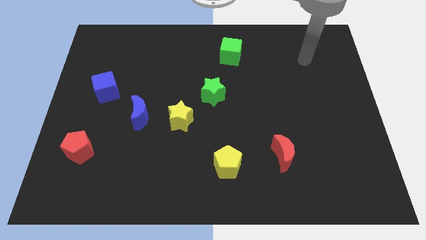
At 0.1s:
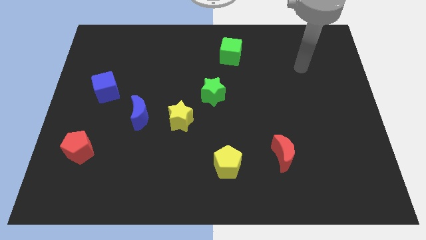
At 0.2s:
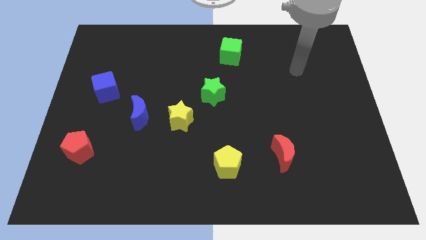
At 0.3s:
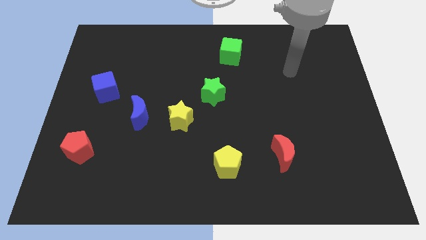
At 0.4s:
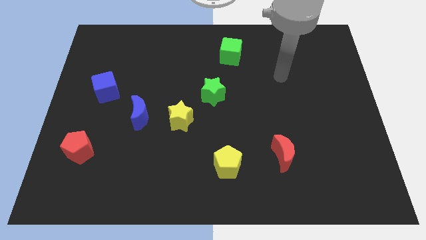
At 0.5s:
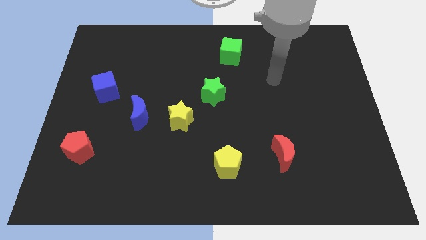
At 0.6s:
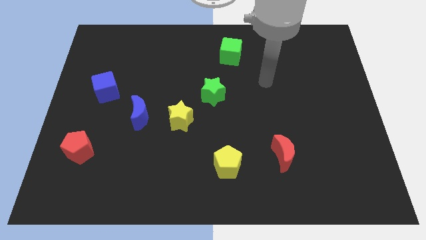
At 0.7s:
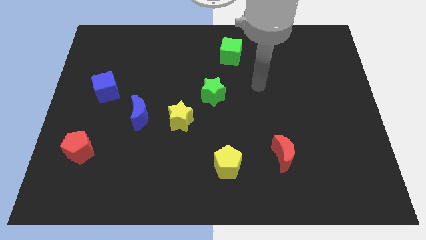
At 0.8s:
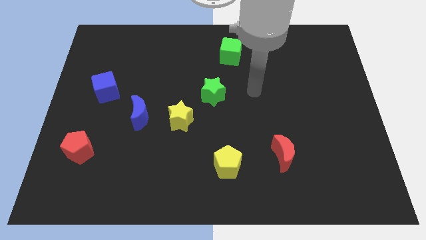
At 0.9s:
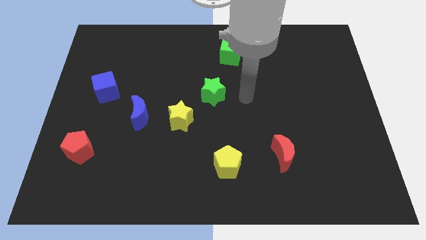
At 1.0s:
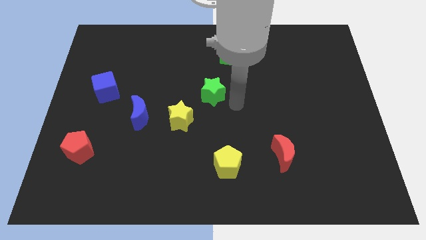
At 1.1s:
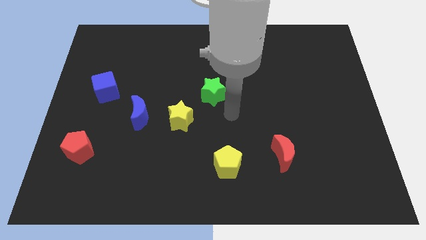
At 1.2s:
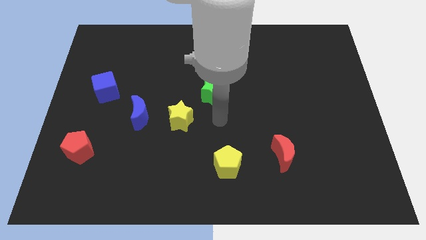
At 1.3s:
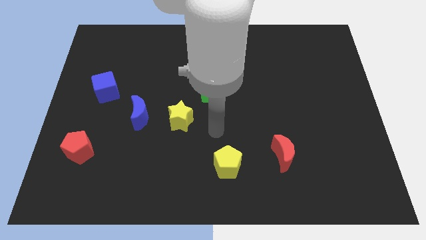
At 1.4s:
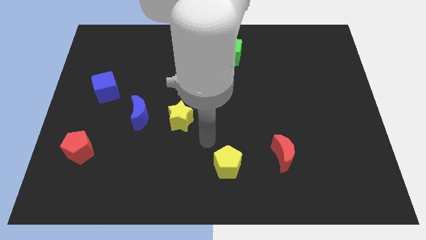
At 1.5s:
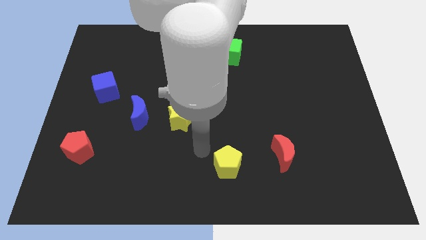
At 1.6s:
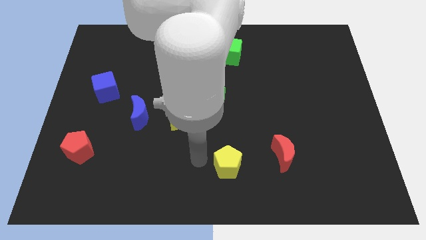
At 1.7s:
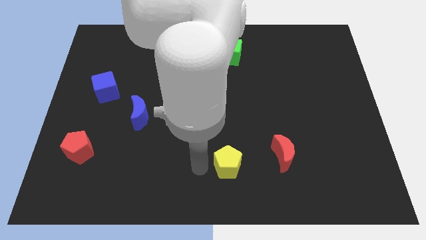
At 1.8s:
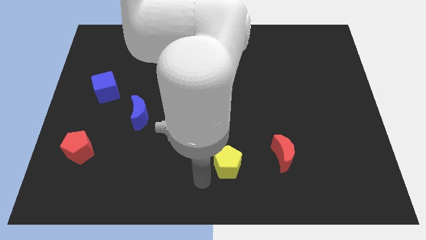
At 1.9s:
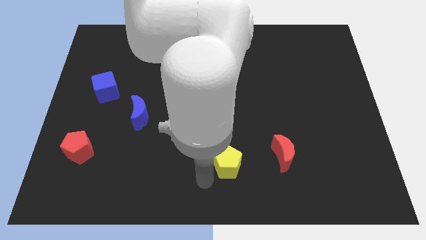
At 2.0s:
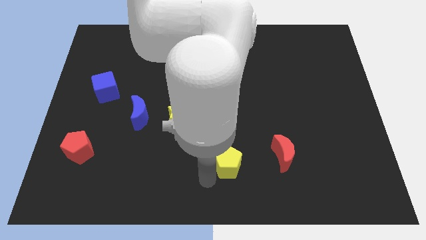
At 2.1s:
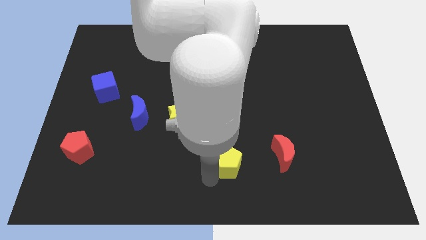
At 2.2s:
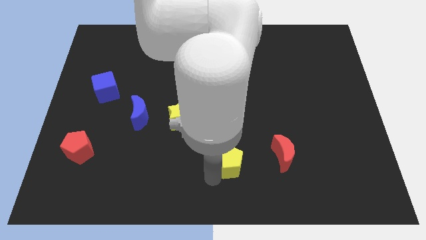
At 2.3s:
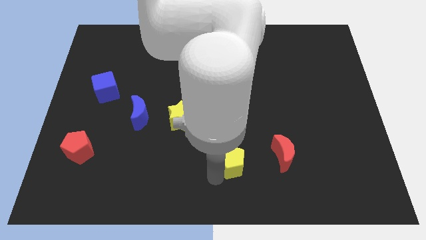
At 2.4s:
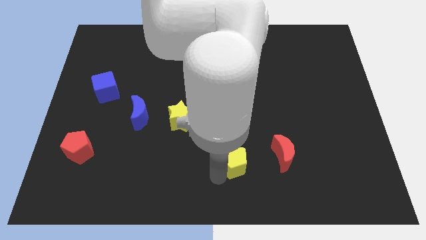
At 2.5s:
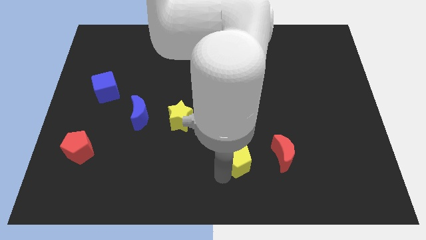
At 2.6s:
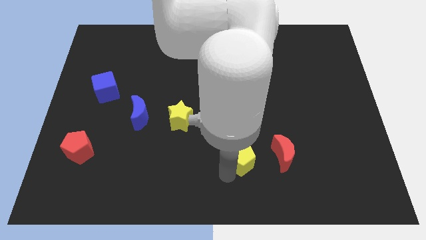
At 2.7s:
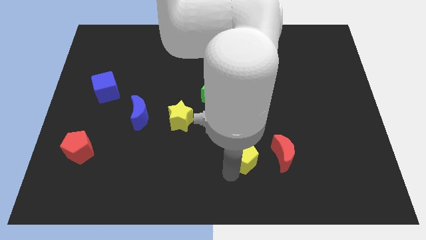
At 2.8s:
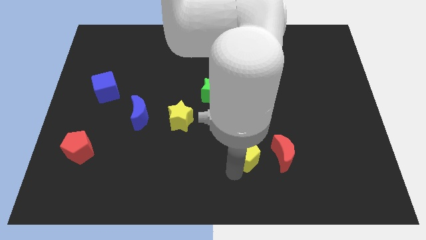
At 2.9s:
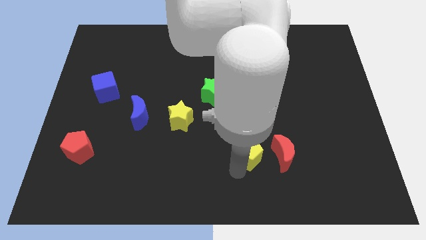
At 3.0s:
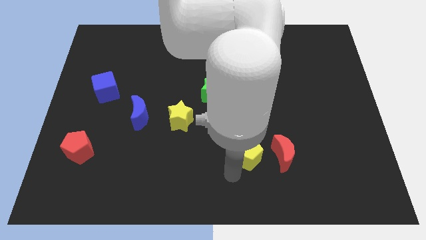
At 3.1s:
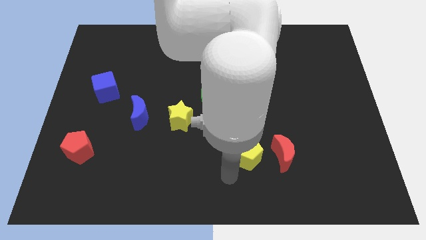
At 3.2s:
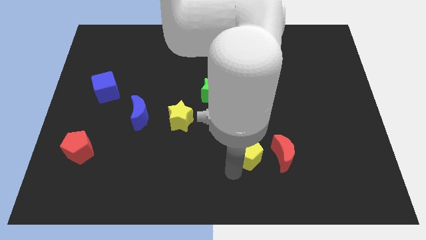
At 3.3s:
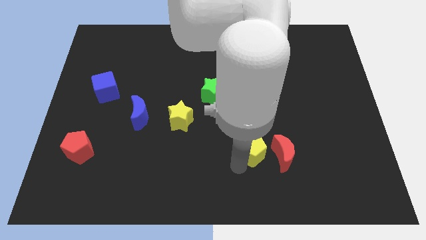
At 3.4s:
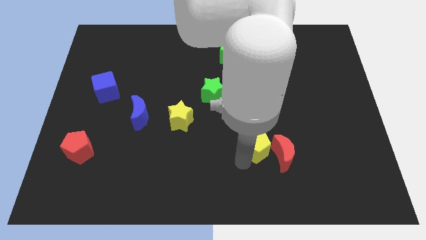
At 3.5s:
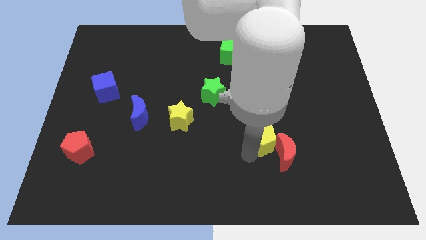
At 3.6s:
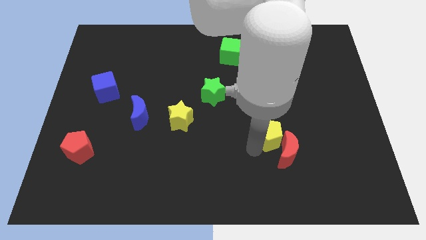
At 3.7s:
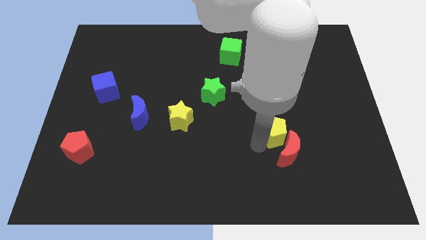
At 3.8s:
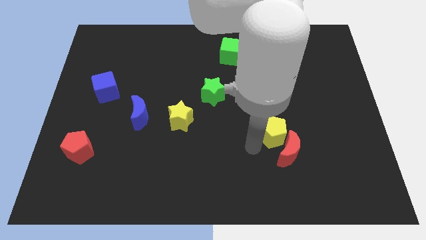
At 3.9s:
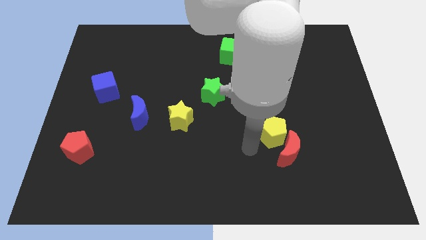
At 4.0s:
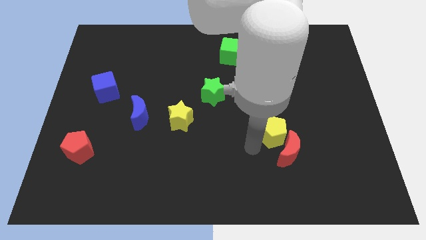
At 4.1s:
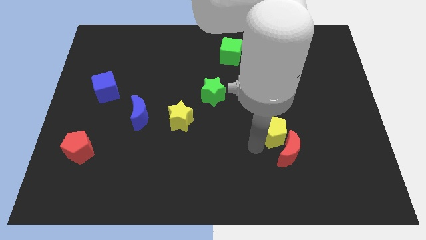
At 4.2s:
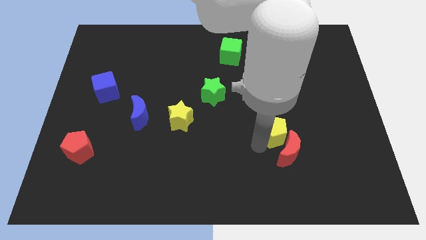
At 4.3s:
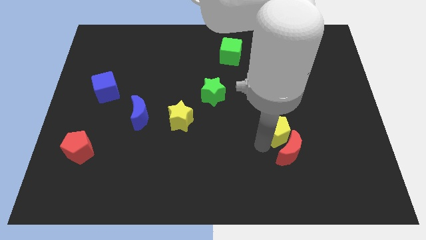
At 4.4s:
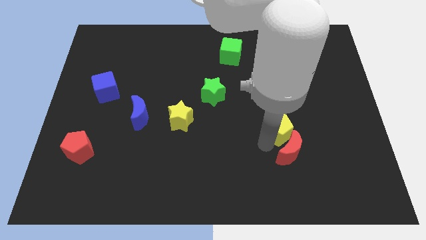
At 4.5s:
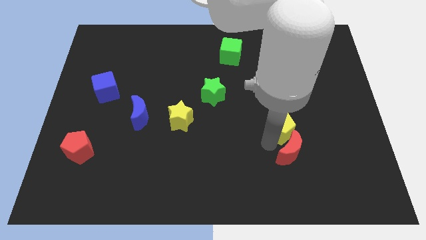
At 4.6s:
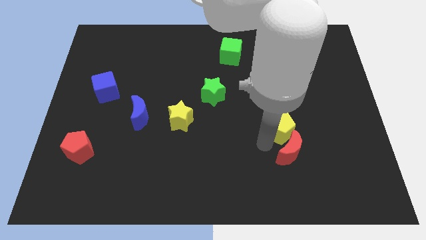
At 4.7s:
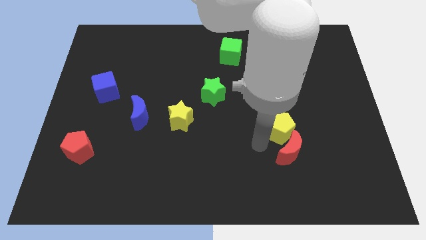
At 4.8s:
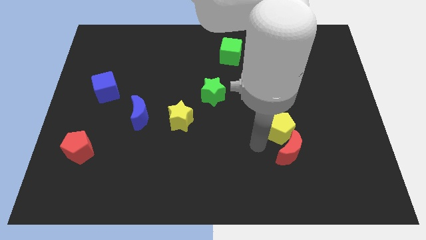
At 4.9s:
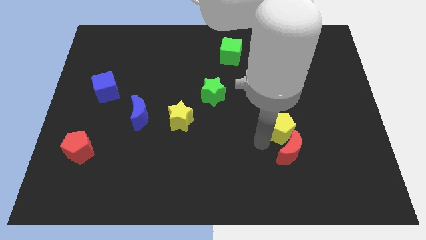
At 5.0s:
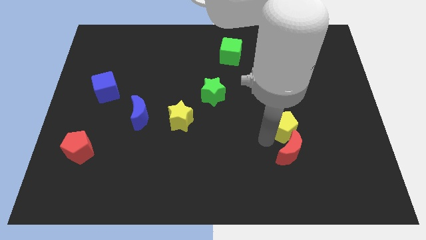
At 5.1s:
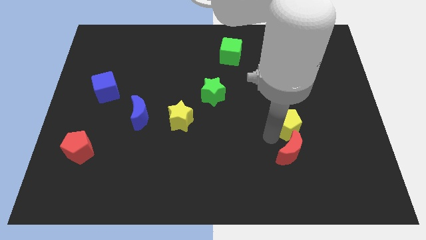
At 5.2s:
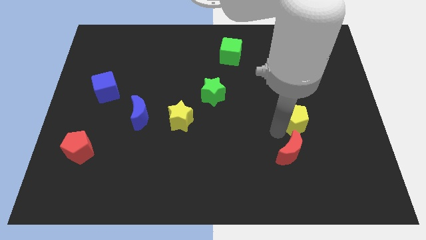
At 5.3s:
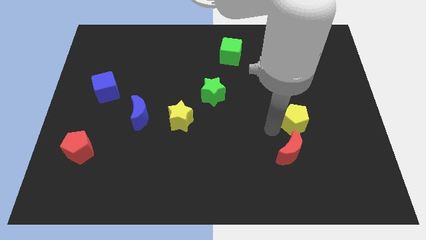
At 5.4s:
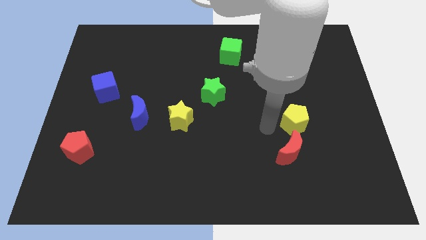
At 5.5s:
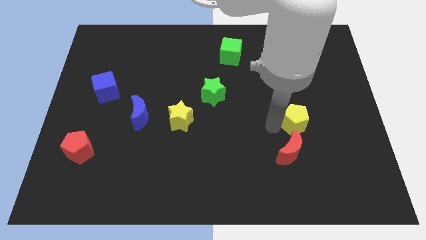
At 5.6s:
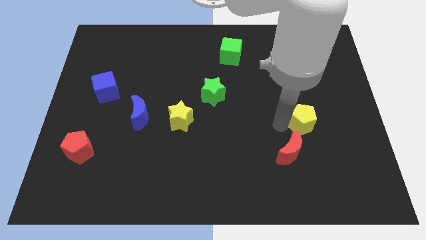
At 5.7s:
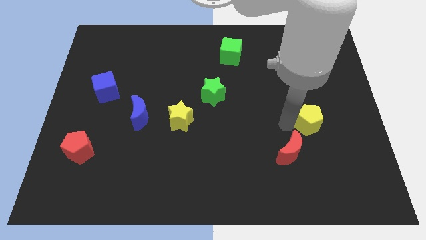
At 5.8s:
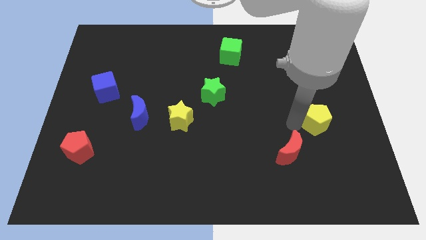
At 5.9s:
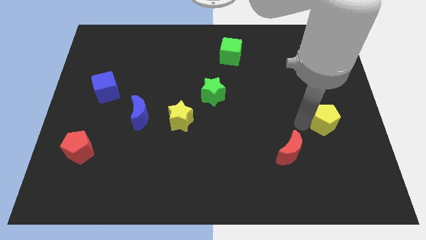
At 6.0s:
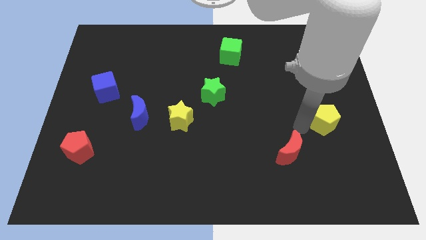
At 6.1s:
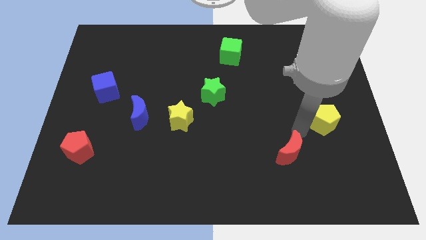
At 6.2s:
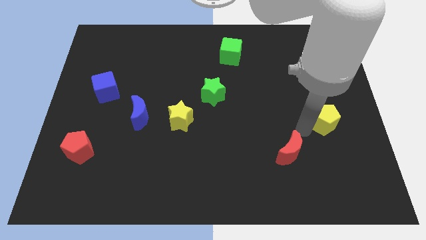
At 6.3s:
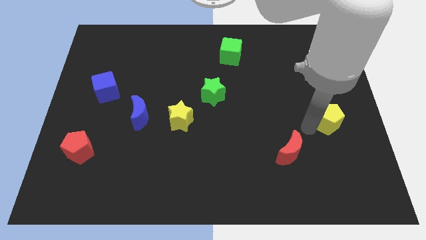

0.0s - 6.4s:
slide the yellow pentagon to the center right

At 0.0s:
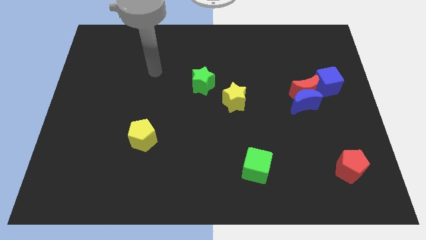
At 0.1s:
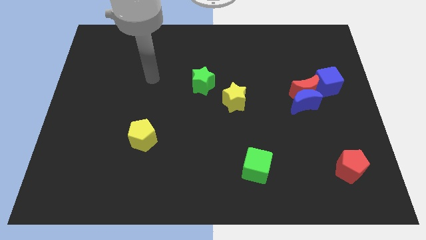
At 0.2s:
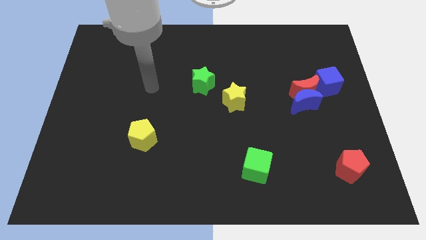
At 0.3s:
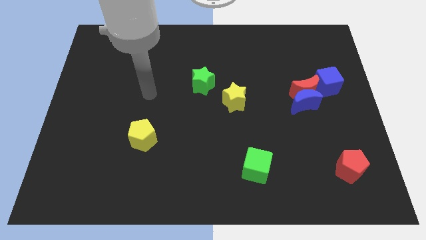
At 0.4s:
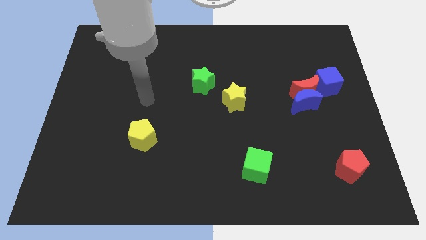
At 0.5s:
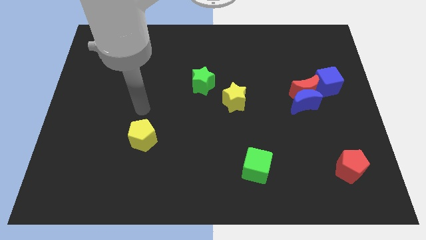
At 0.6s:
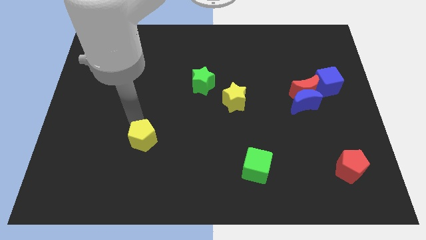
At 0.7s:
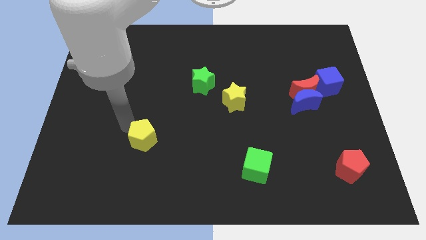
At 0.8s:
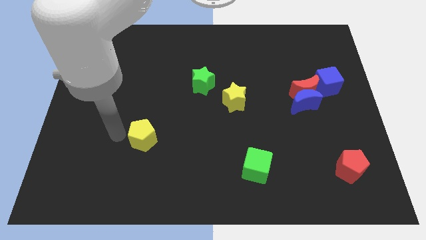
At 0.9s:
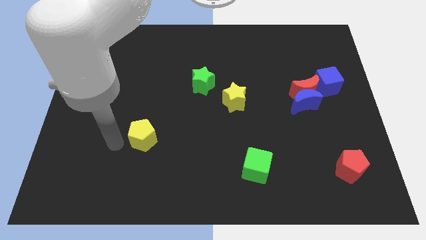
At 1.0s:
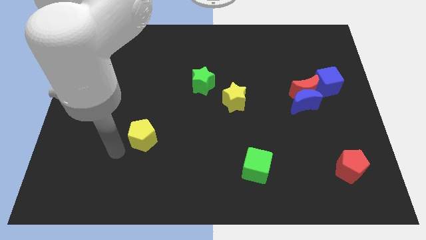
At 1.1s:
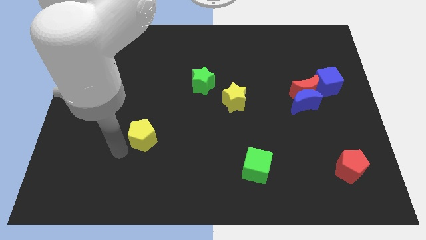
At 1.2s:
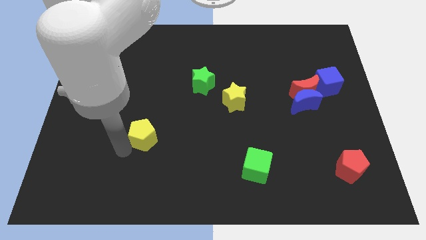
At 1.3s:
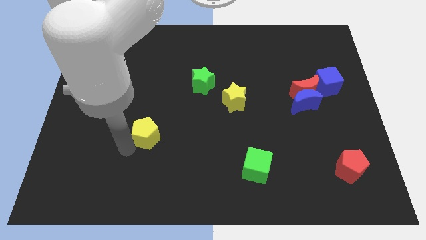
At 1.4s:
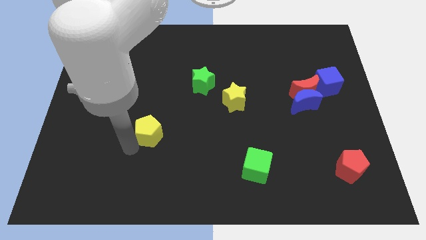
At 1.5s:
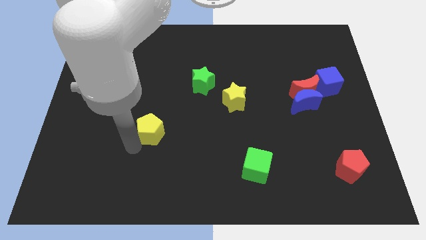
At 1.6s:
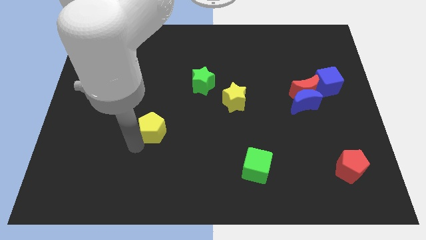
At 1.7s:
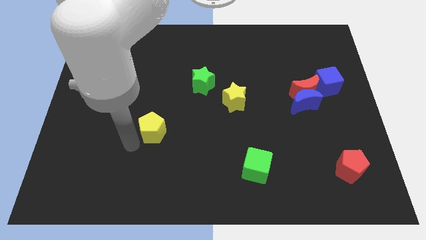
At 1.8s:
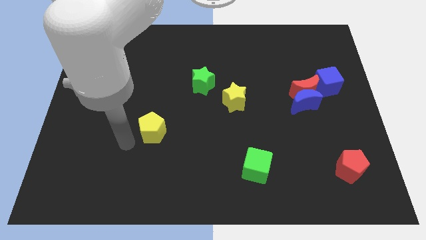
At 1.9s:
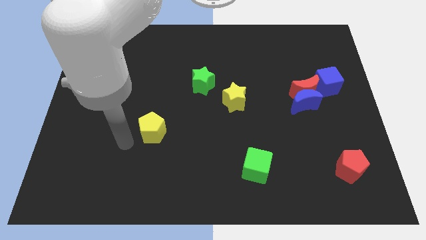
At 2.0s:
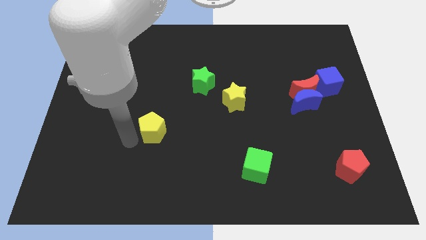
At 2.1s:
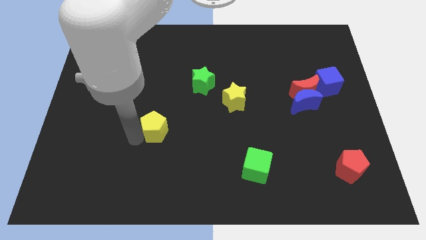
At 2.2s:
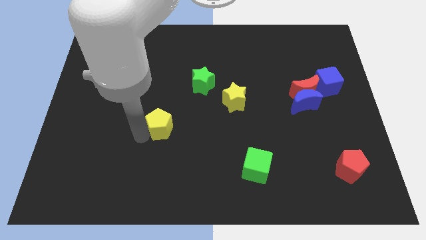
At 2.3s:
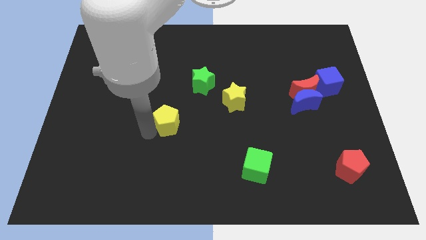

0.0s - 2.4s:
move the yellow pentagon to the center of the board
